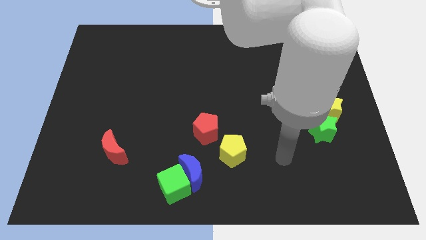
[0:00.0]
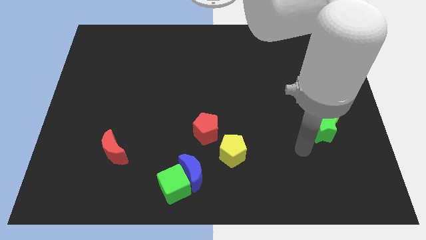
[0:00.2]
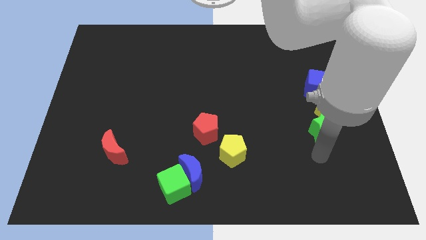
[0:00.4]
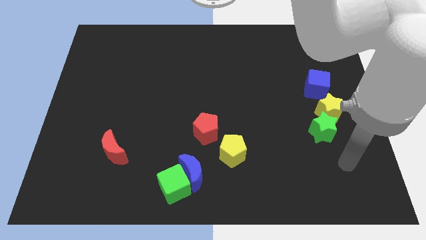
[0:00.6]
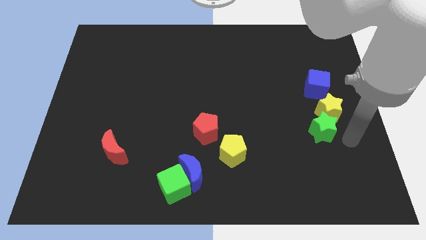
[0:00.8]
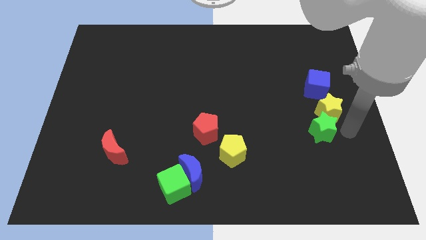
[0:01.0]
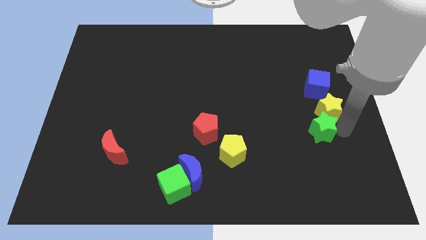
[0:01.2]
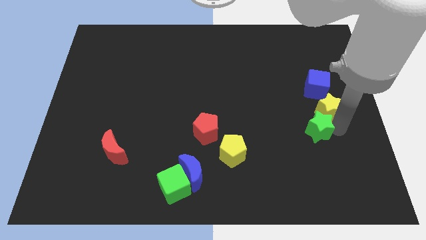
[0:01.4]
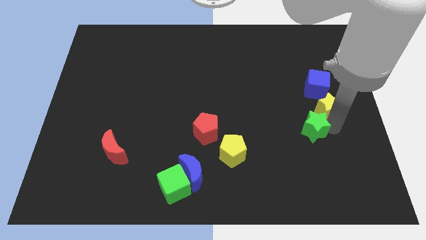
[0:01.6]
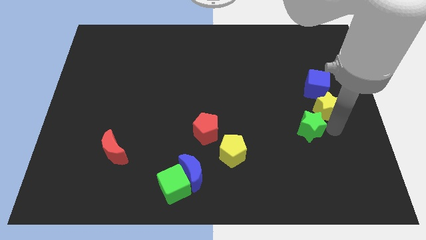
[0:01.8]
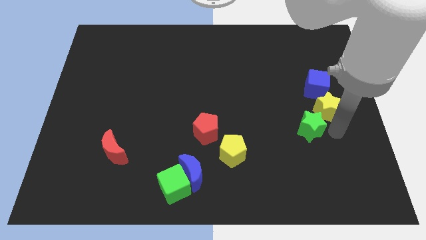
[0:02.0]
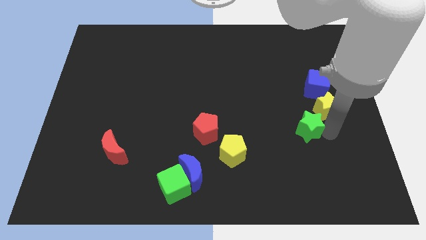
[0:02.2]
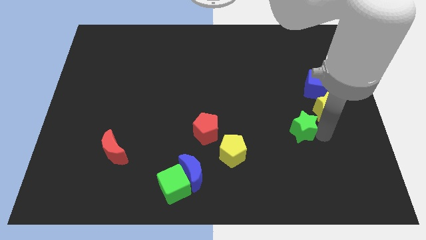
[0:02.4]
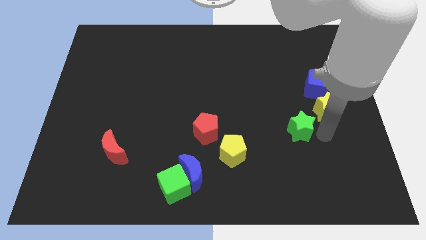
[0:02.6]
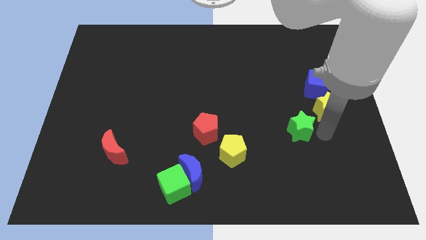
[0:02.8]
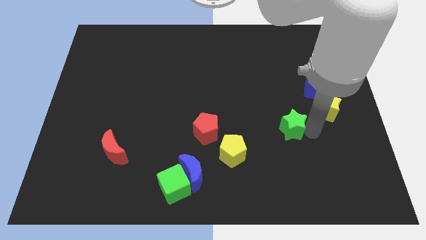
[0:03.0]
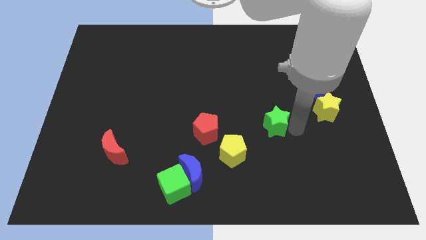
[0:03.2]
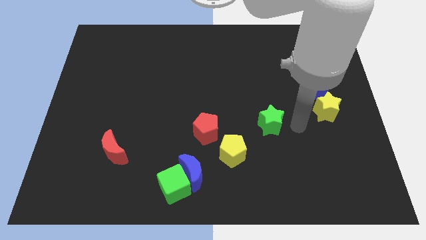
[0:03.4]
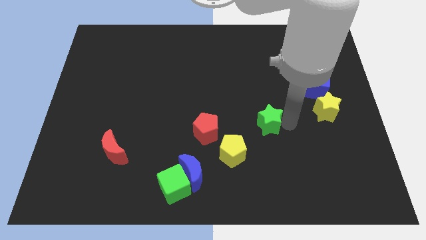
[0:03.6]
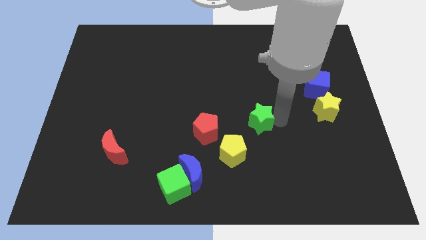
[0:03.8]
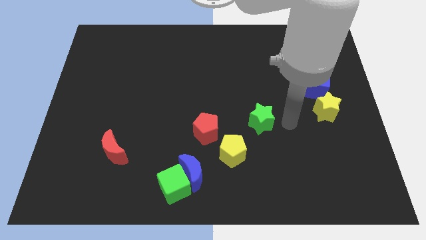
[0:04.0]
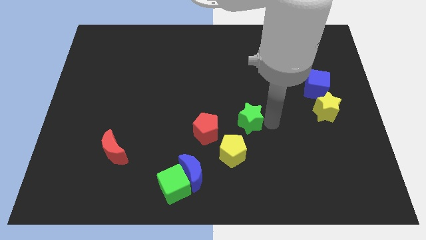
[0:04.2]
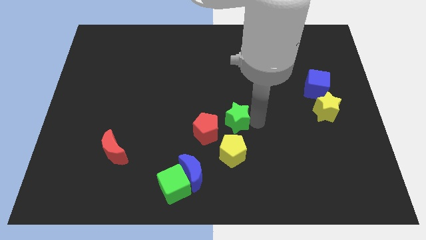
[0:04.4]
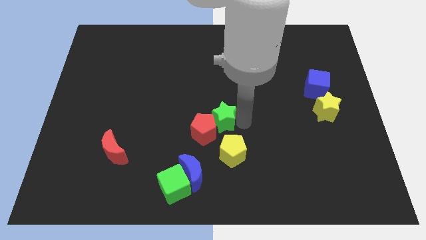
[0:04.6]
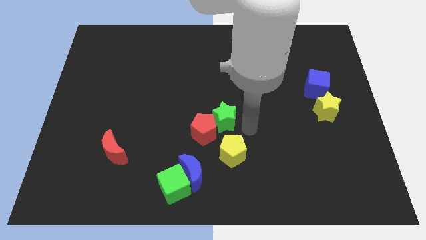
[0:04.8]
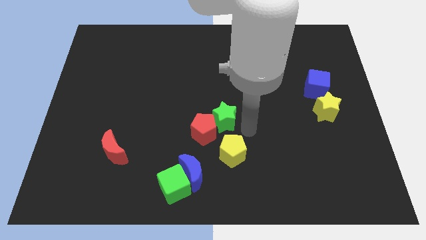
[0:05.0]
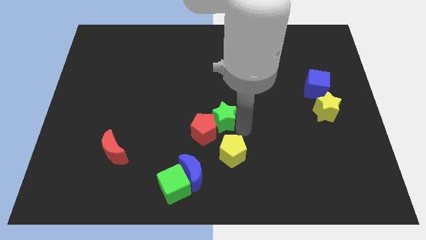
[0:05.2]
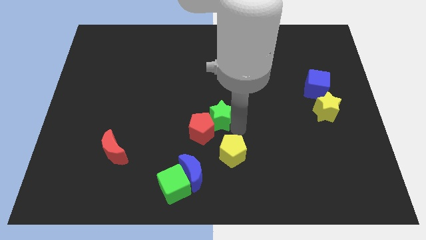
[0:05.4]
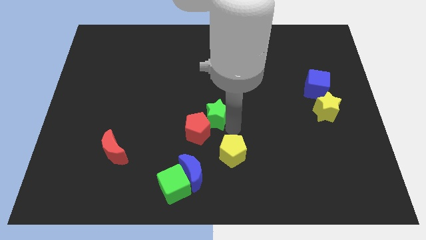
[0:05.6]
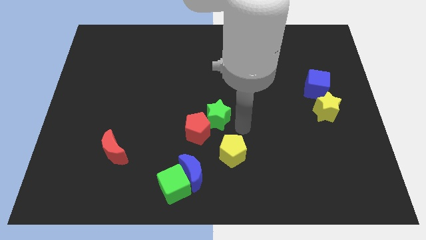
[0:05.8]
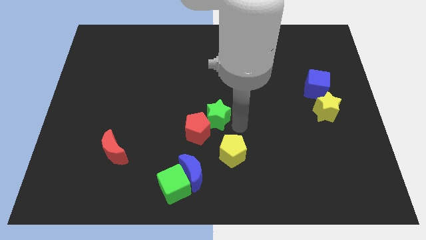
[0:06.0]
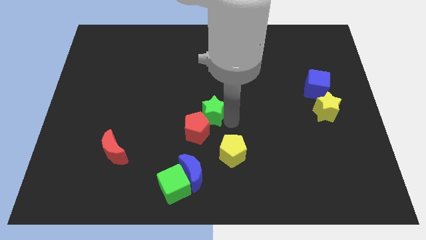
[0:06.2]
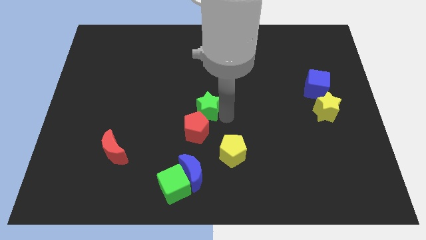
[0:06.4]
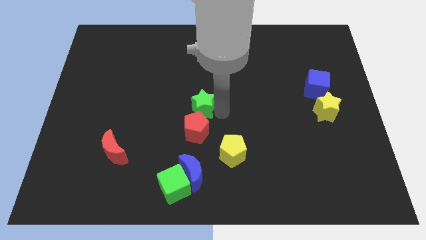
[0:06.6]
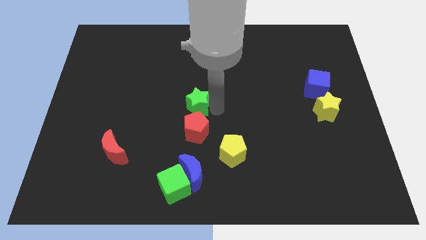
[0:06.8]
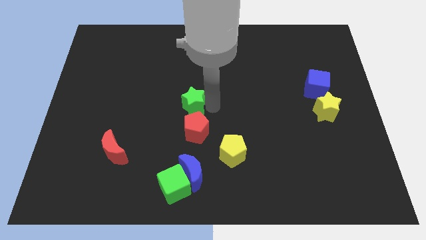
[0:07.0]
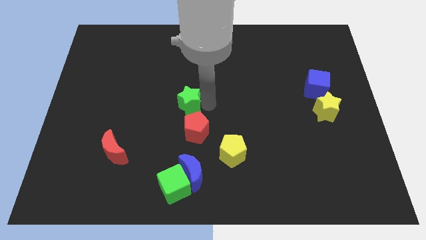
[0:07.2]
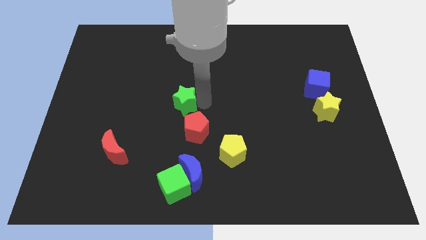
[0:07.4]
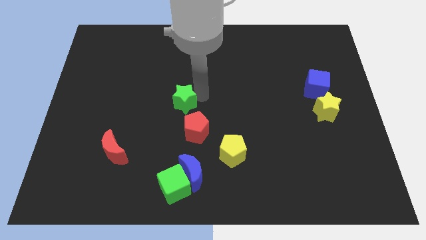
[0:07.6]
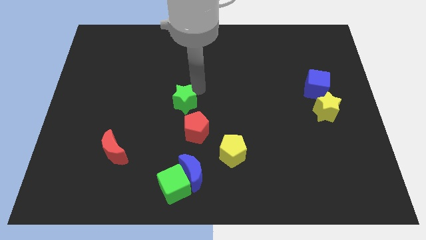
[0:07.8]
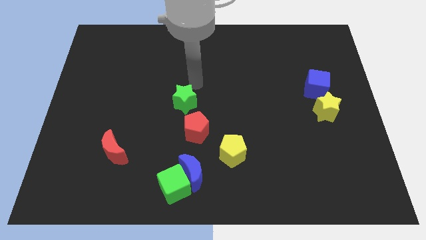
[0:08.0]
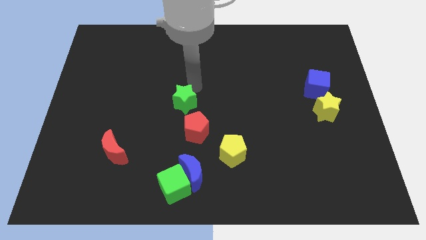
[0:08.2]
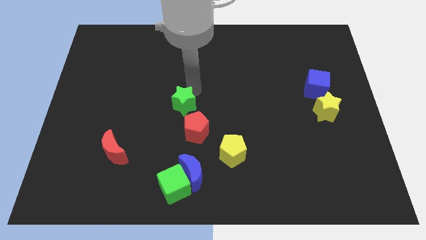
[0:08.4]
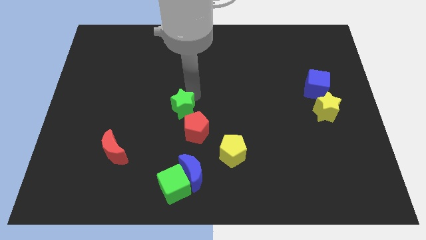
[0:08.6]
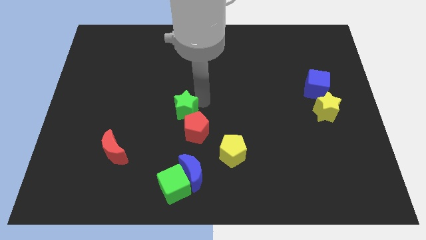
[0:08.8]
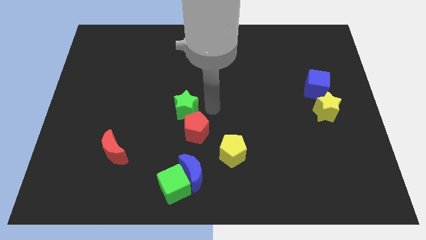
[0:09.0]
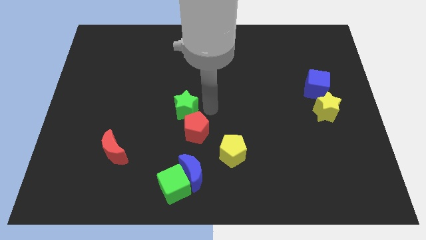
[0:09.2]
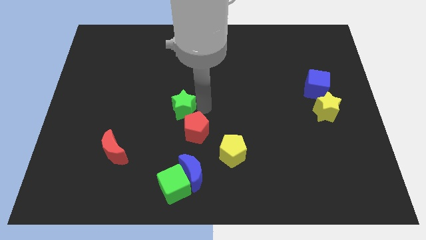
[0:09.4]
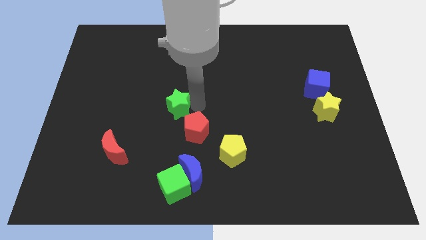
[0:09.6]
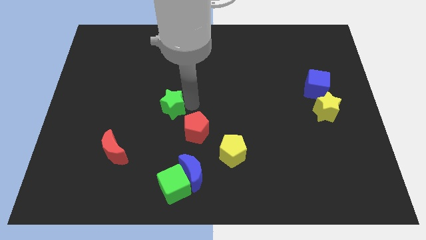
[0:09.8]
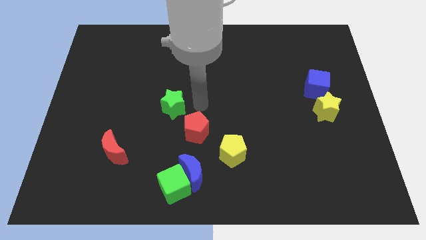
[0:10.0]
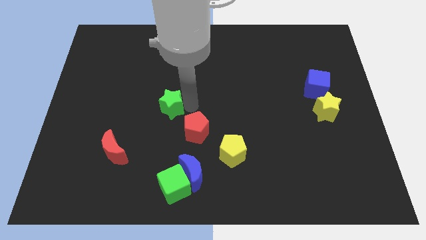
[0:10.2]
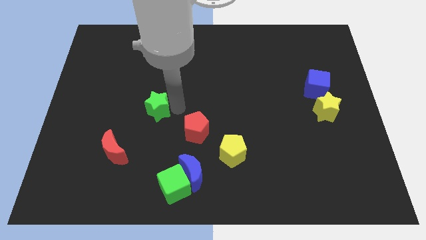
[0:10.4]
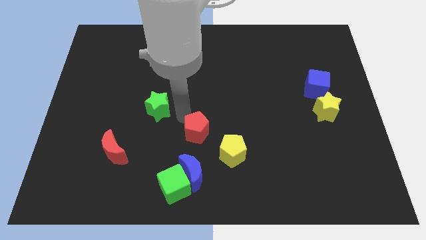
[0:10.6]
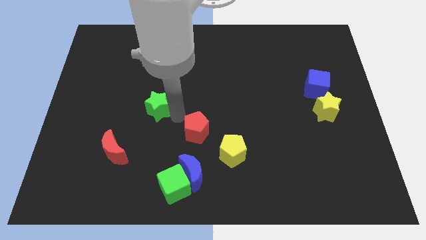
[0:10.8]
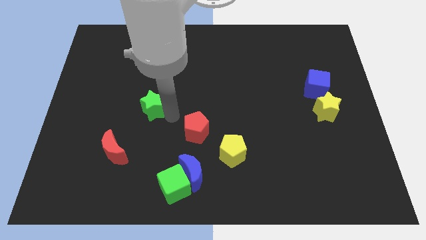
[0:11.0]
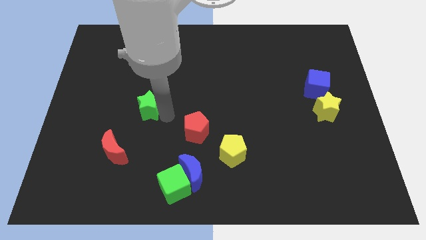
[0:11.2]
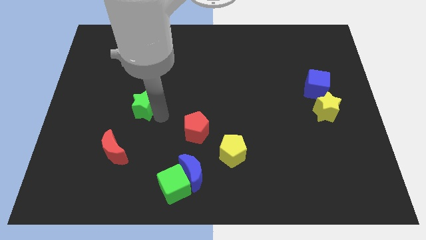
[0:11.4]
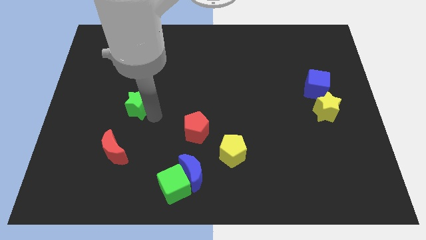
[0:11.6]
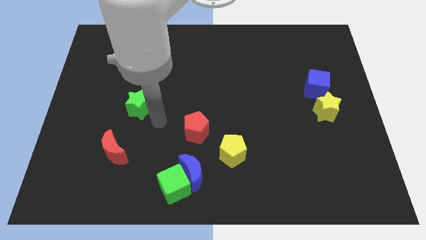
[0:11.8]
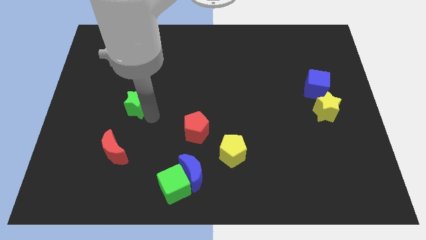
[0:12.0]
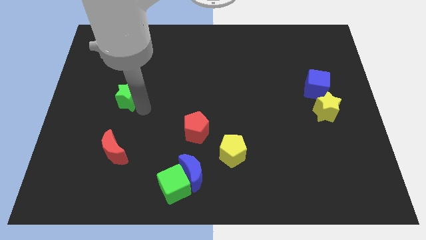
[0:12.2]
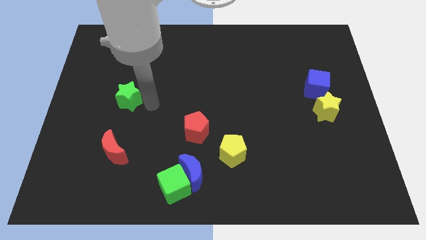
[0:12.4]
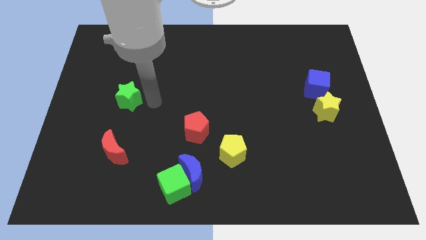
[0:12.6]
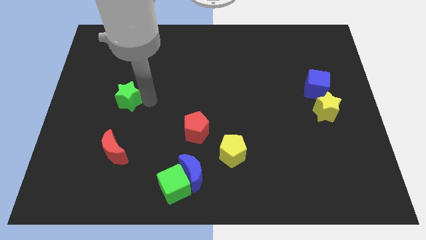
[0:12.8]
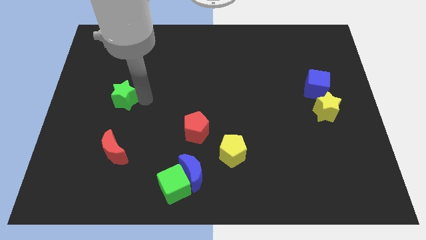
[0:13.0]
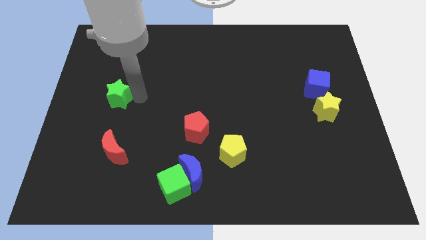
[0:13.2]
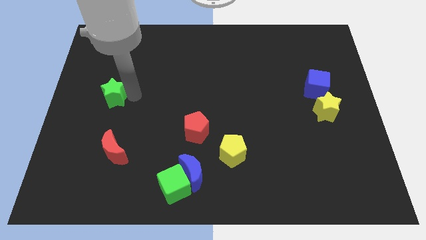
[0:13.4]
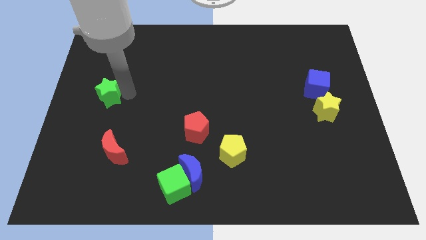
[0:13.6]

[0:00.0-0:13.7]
move the green star to the left side
